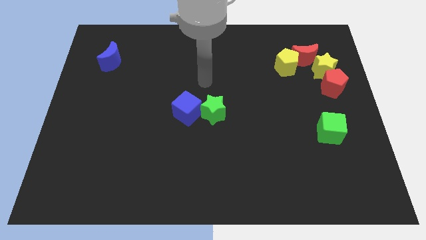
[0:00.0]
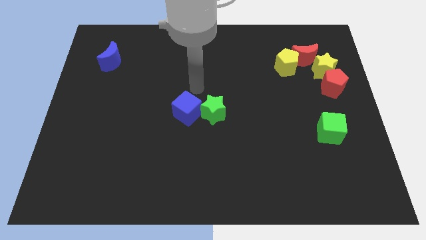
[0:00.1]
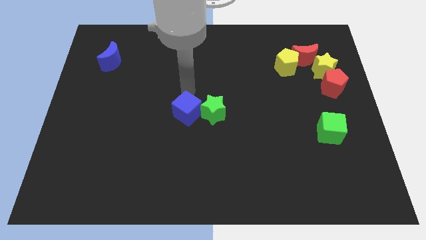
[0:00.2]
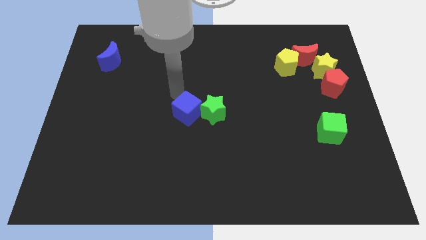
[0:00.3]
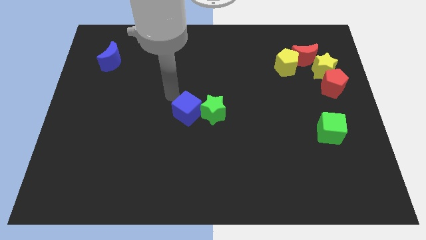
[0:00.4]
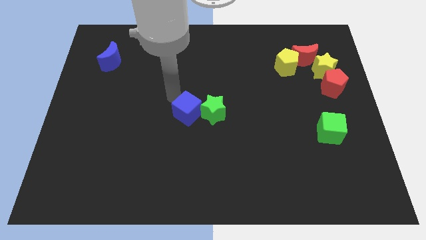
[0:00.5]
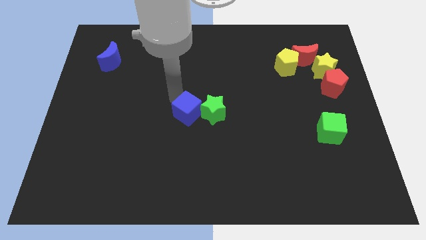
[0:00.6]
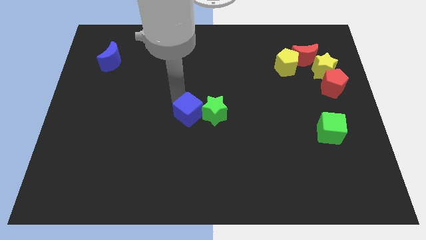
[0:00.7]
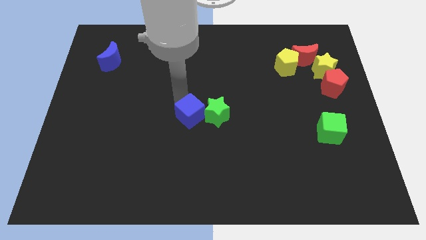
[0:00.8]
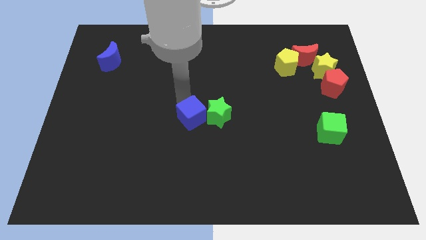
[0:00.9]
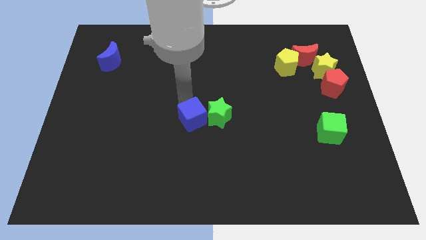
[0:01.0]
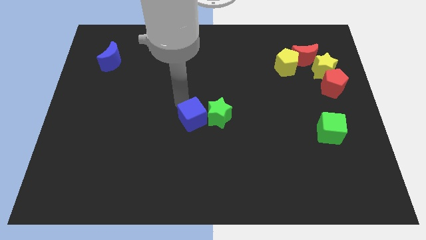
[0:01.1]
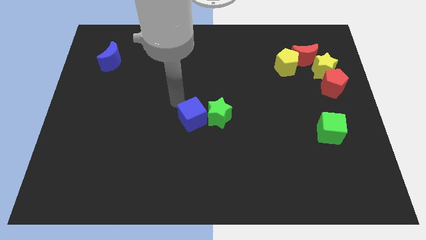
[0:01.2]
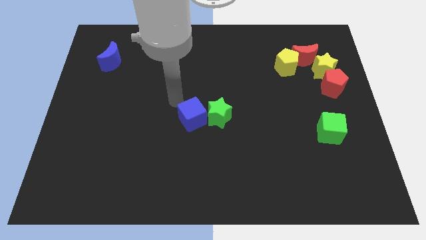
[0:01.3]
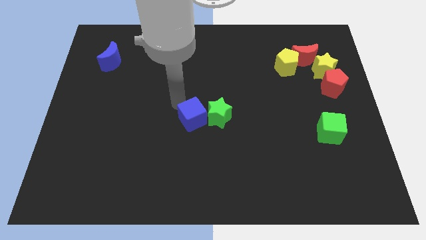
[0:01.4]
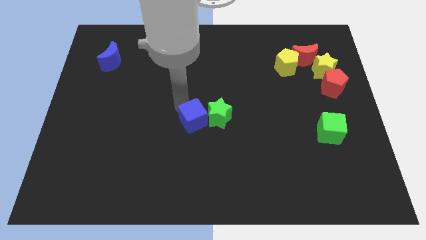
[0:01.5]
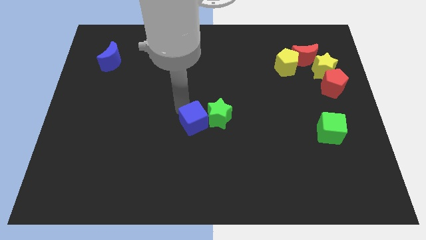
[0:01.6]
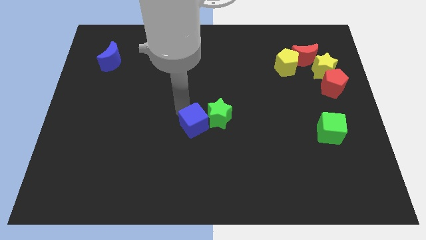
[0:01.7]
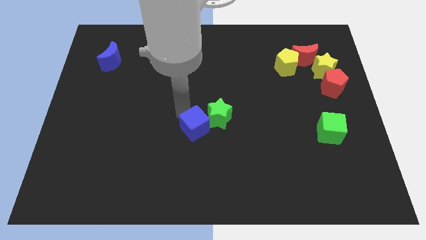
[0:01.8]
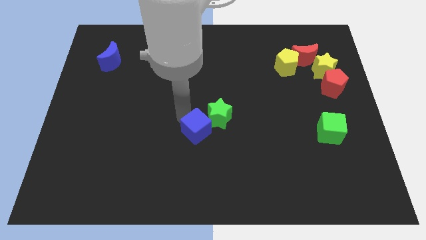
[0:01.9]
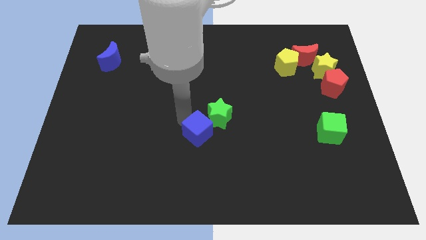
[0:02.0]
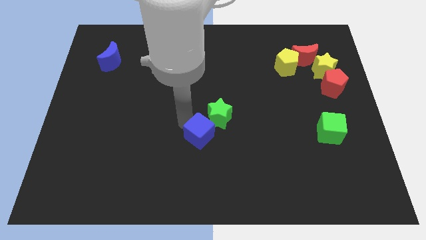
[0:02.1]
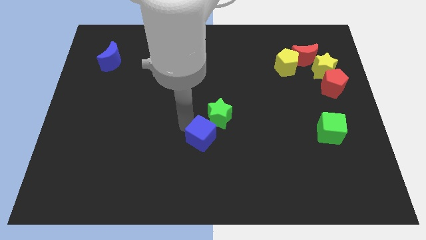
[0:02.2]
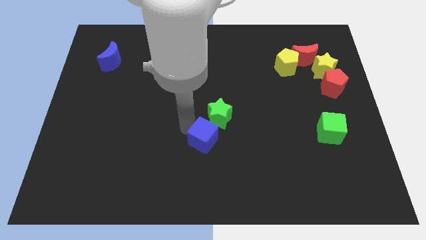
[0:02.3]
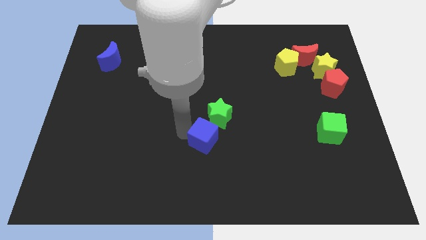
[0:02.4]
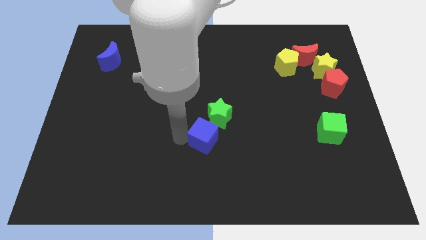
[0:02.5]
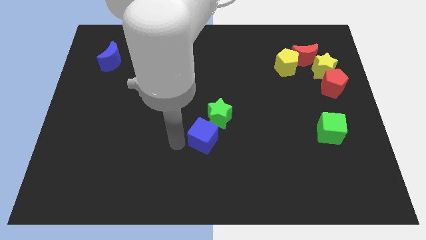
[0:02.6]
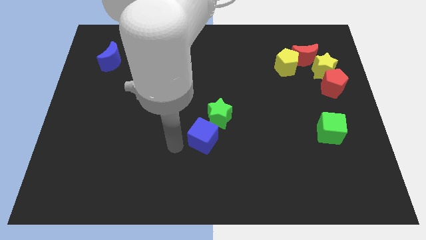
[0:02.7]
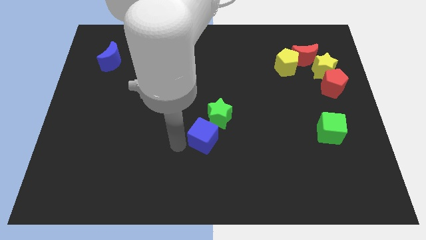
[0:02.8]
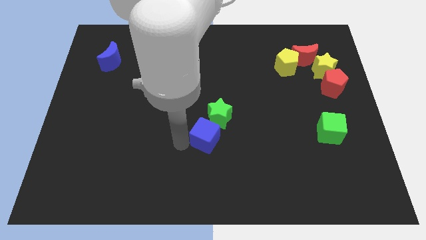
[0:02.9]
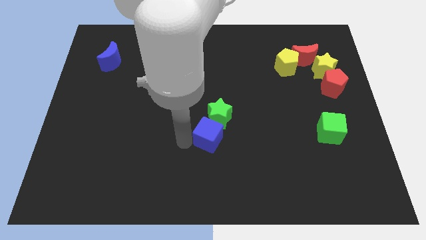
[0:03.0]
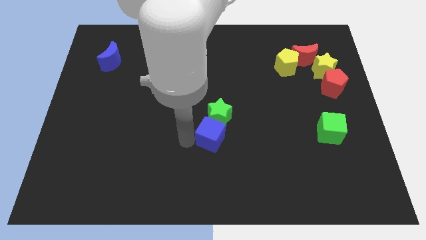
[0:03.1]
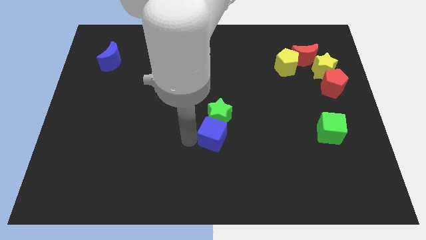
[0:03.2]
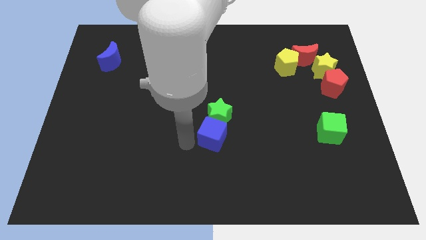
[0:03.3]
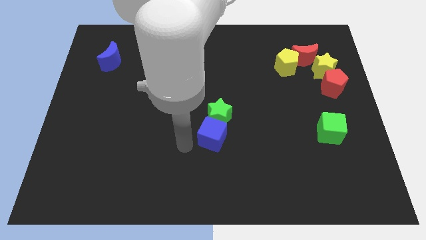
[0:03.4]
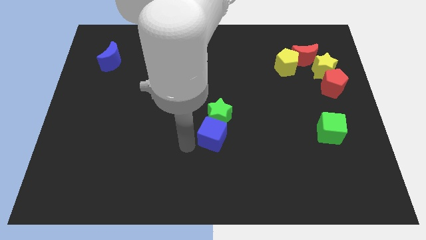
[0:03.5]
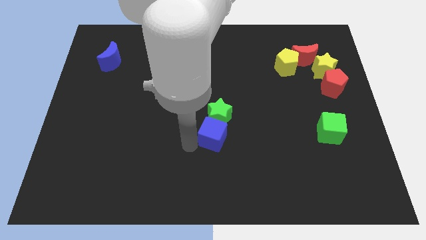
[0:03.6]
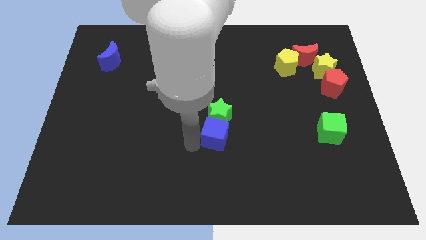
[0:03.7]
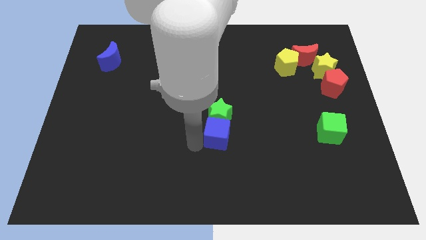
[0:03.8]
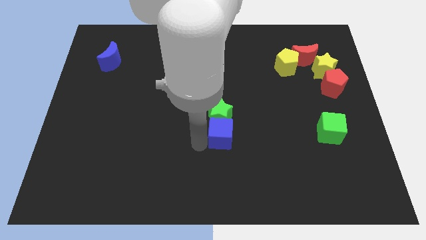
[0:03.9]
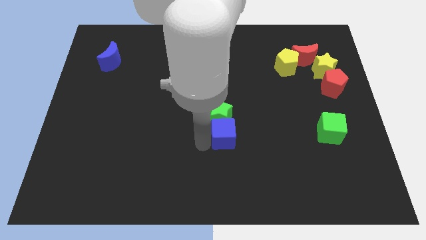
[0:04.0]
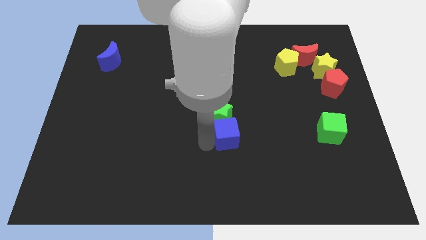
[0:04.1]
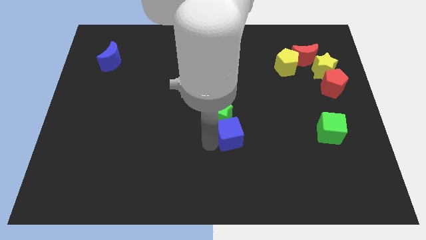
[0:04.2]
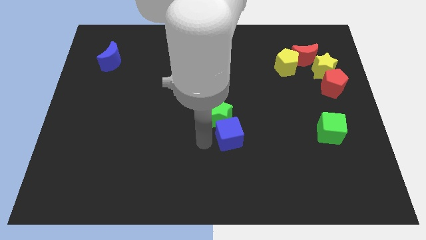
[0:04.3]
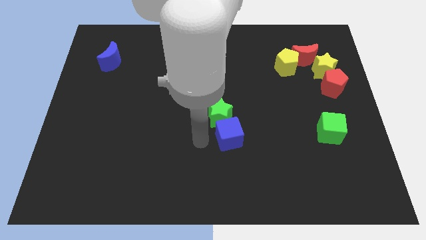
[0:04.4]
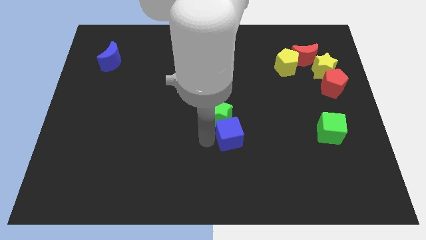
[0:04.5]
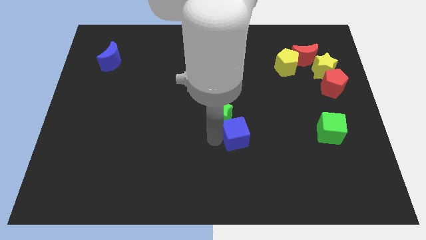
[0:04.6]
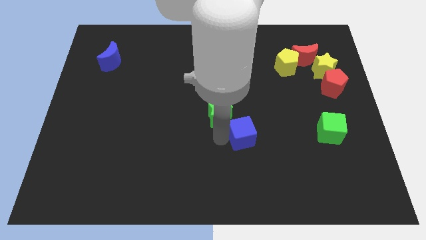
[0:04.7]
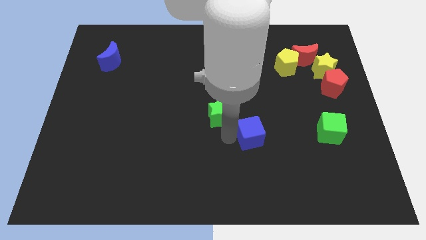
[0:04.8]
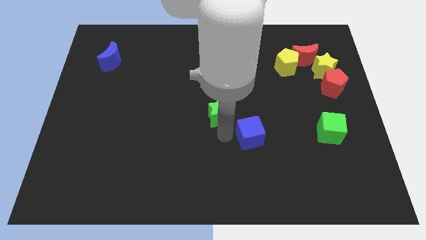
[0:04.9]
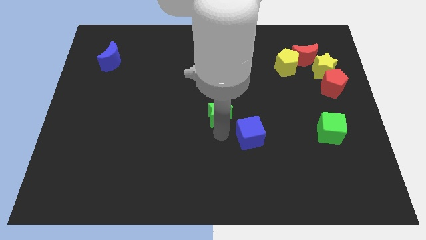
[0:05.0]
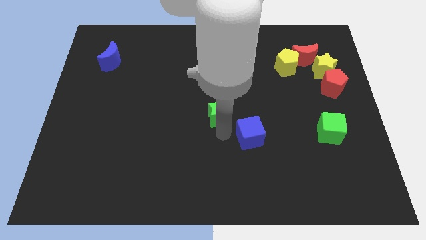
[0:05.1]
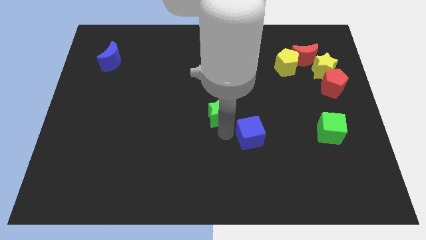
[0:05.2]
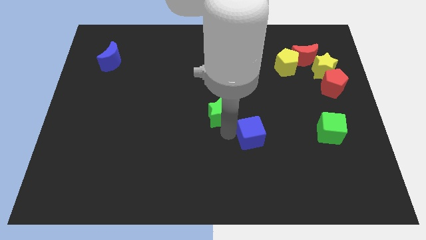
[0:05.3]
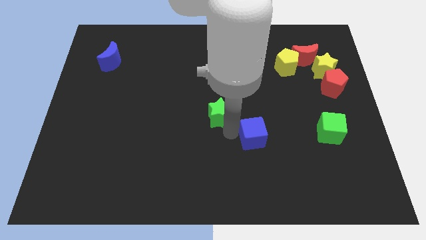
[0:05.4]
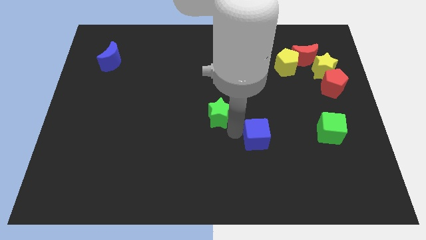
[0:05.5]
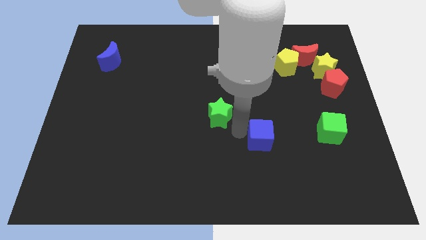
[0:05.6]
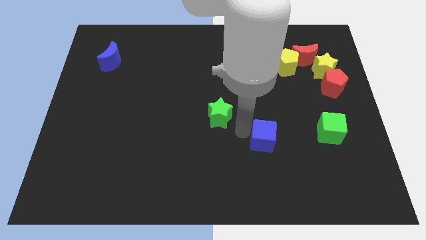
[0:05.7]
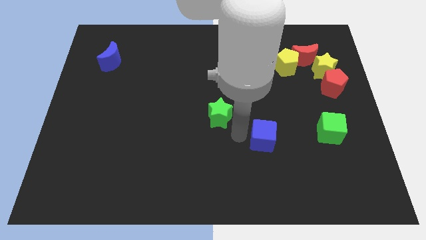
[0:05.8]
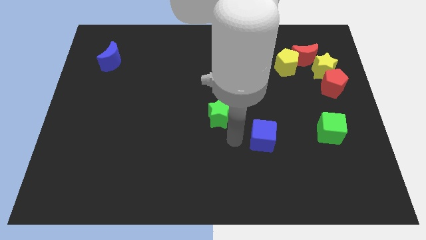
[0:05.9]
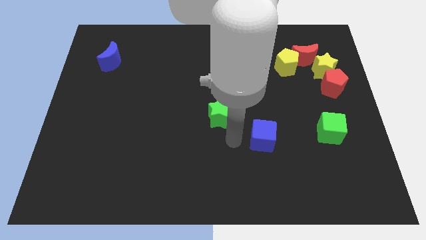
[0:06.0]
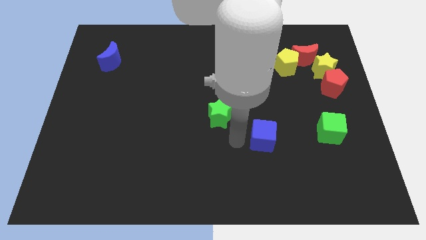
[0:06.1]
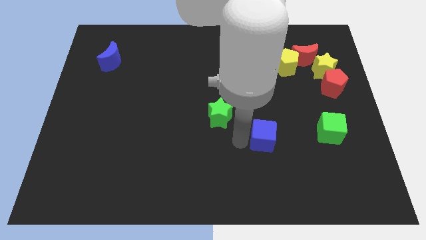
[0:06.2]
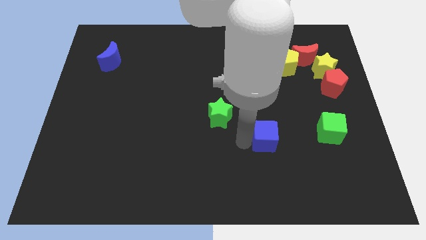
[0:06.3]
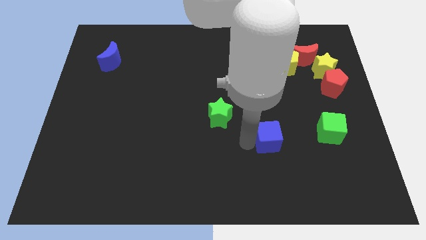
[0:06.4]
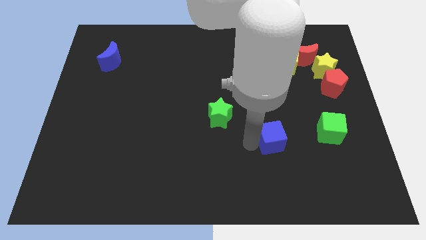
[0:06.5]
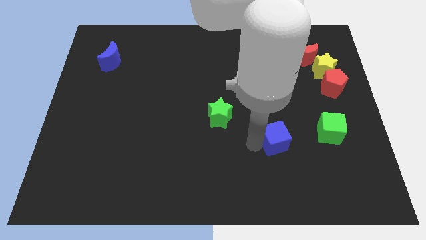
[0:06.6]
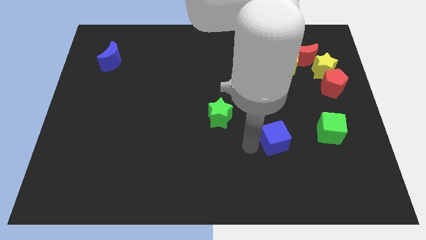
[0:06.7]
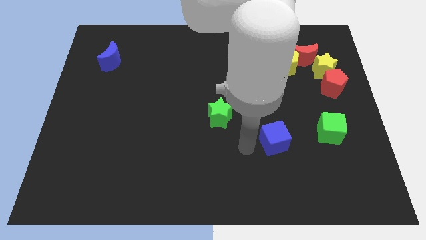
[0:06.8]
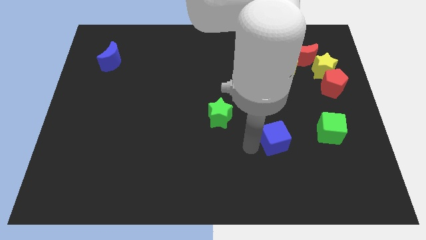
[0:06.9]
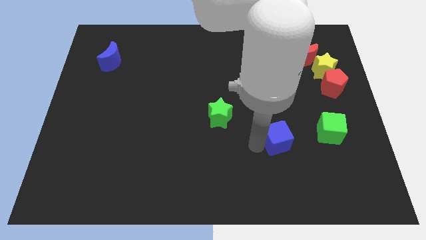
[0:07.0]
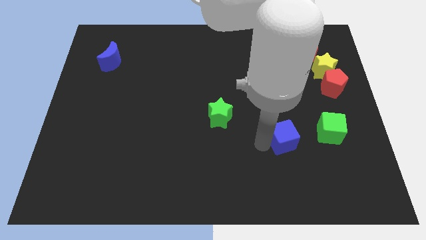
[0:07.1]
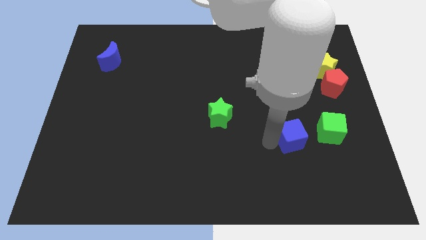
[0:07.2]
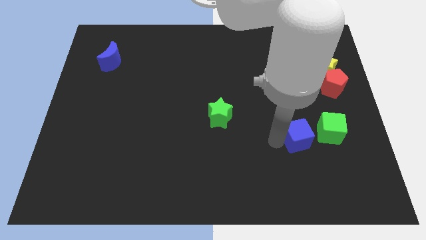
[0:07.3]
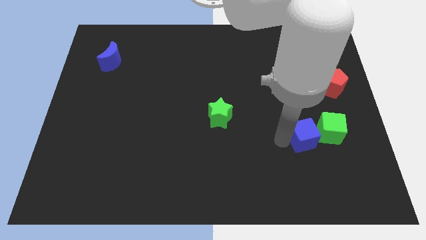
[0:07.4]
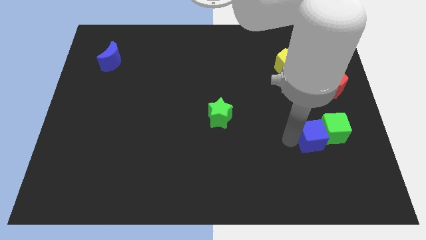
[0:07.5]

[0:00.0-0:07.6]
move the blue cube towards the green cube
